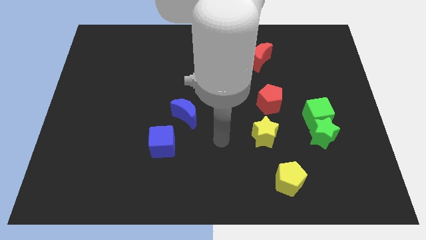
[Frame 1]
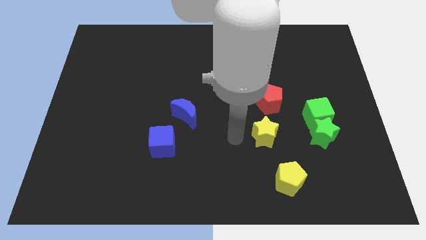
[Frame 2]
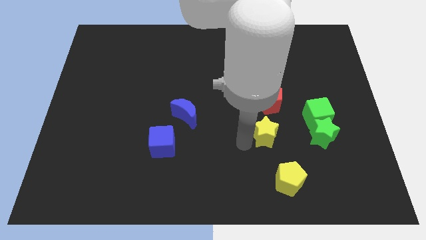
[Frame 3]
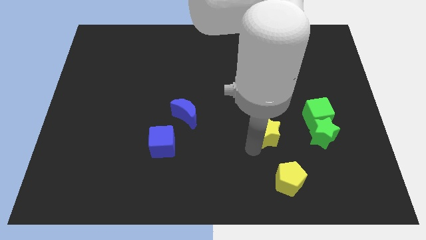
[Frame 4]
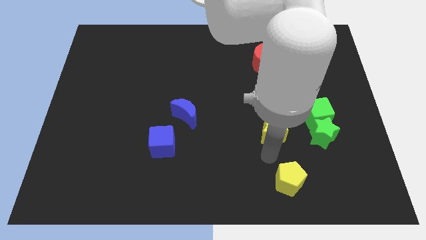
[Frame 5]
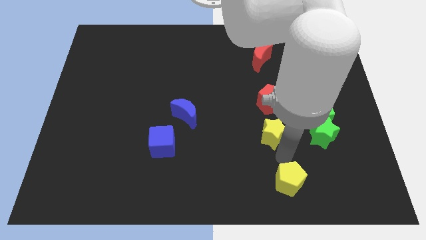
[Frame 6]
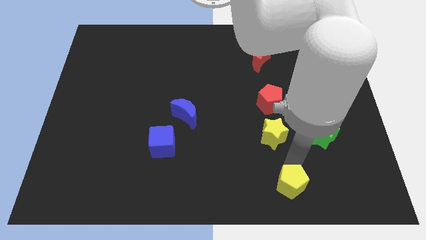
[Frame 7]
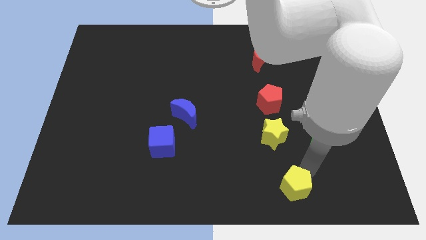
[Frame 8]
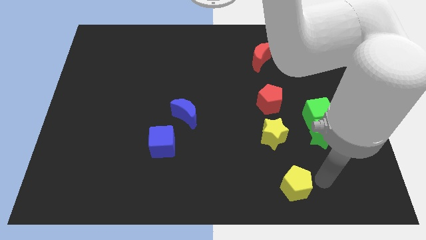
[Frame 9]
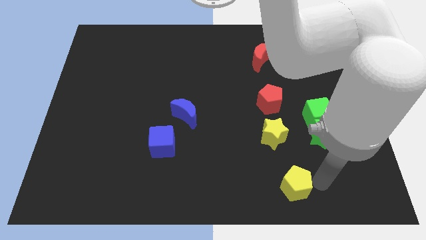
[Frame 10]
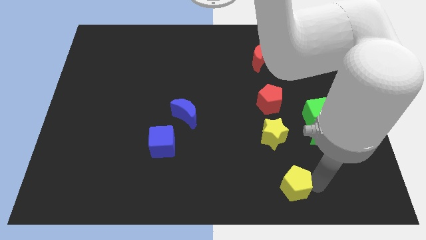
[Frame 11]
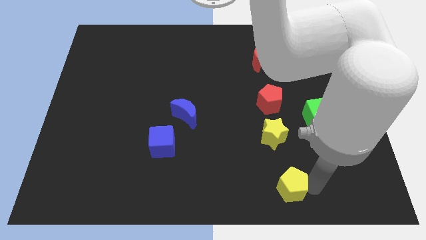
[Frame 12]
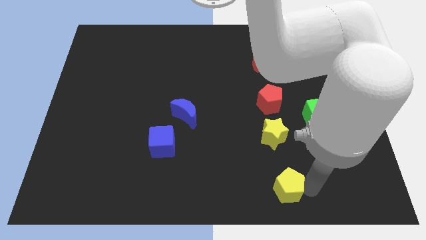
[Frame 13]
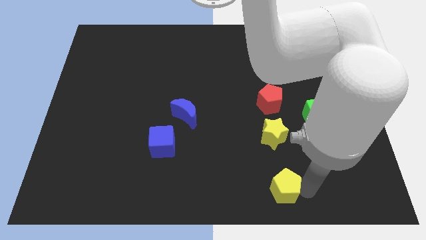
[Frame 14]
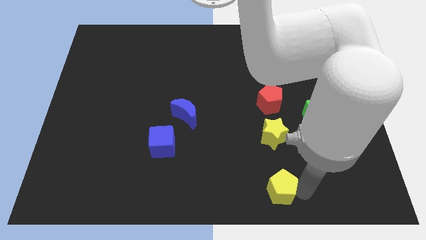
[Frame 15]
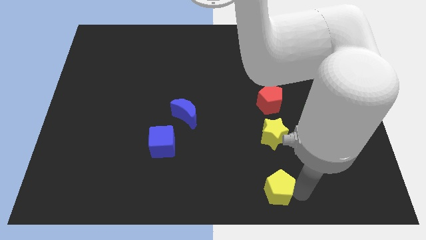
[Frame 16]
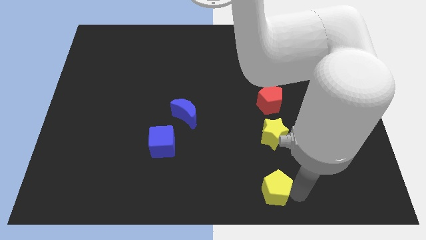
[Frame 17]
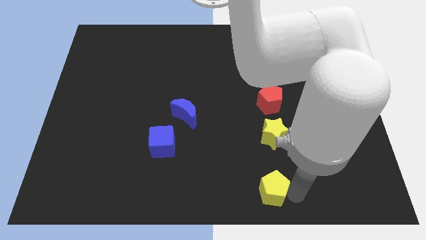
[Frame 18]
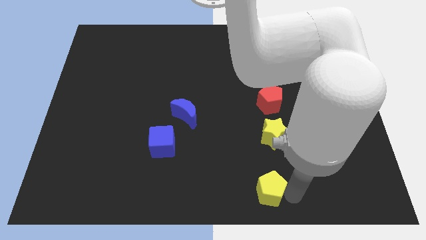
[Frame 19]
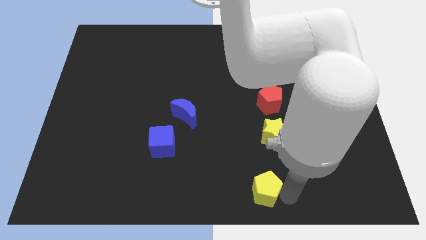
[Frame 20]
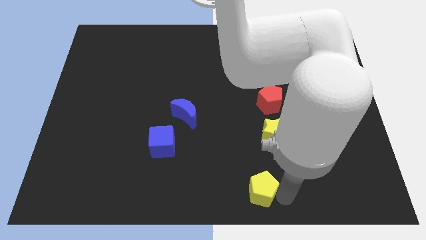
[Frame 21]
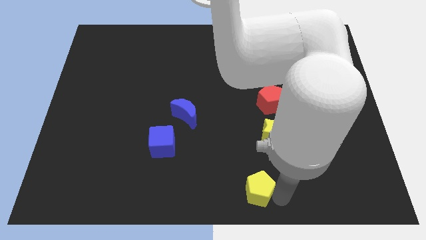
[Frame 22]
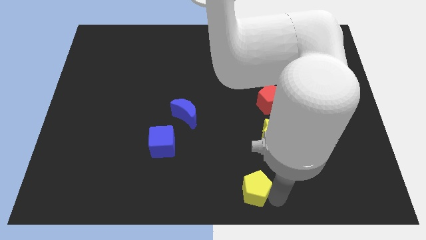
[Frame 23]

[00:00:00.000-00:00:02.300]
push the yellow pentagon left slightly

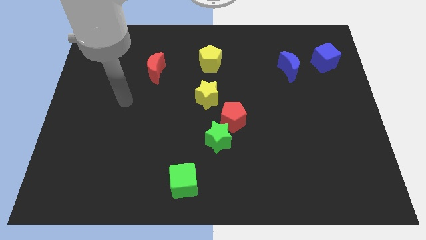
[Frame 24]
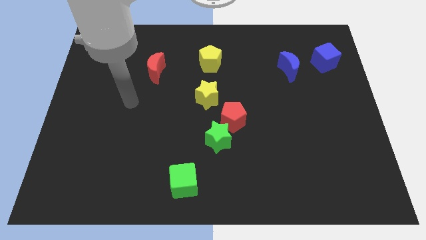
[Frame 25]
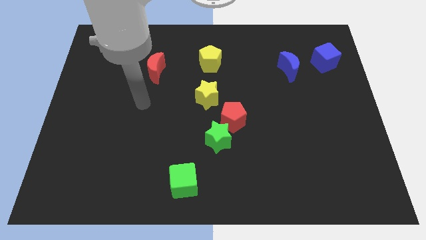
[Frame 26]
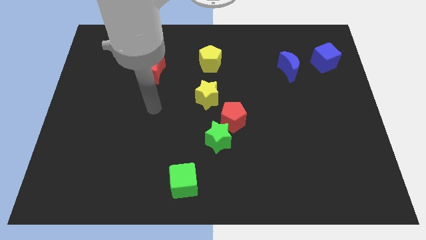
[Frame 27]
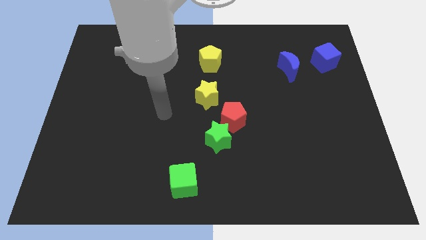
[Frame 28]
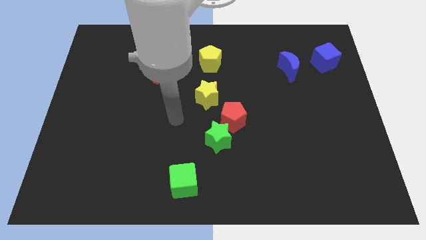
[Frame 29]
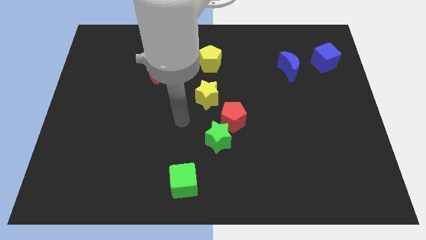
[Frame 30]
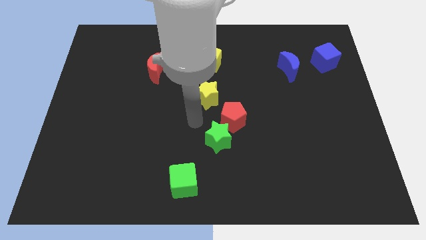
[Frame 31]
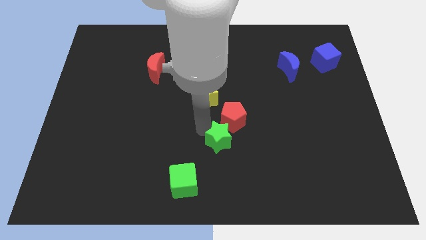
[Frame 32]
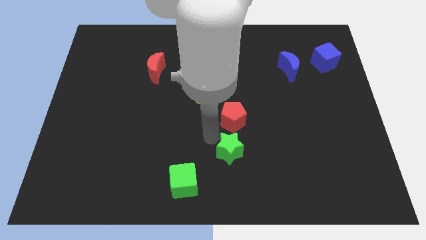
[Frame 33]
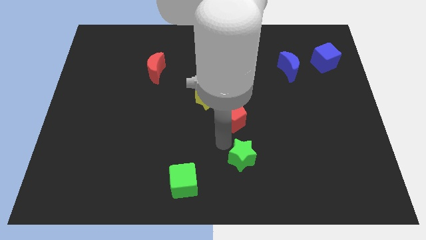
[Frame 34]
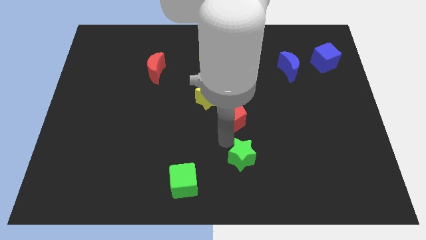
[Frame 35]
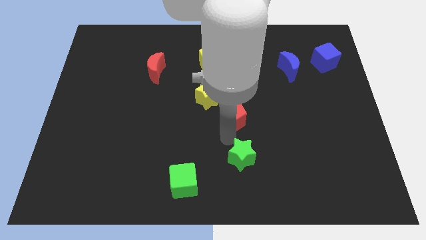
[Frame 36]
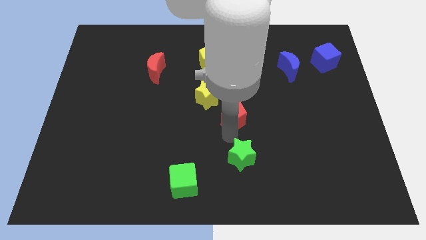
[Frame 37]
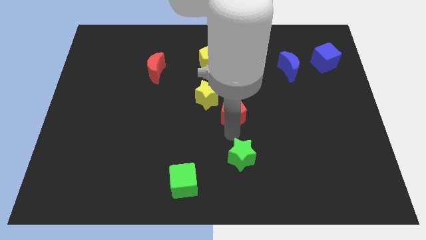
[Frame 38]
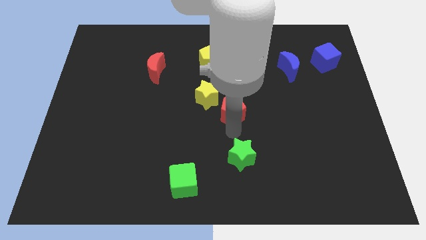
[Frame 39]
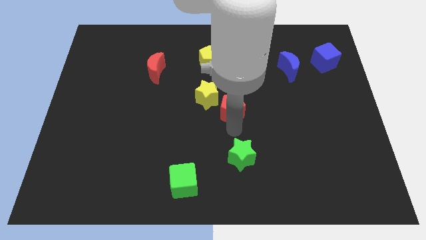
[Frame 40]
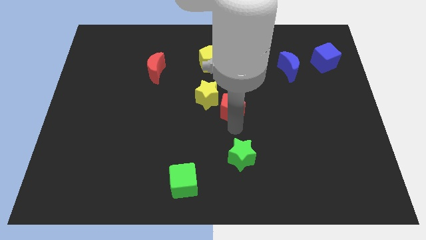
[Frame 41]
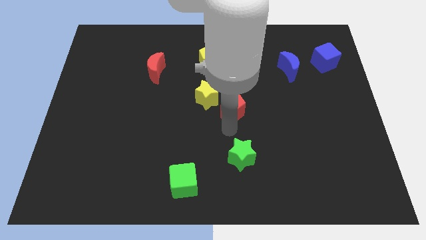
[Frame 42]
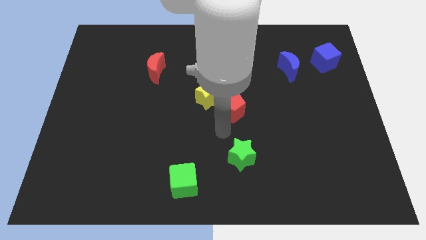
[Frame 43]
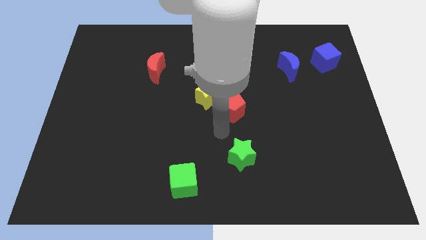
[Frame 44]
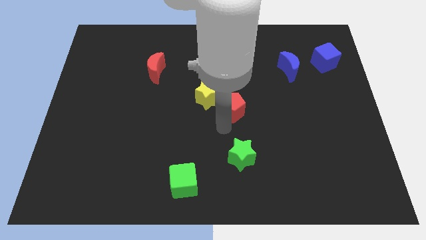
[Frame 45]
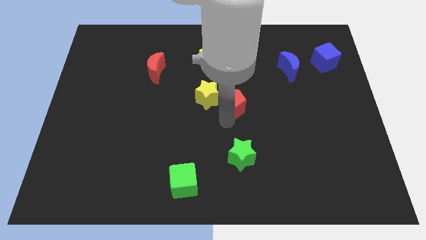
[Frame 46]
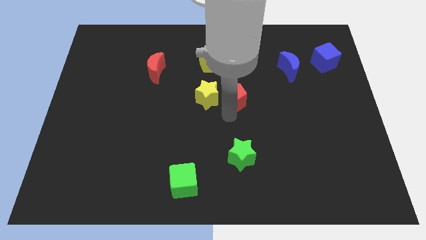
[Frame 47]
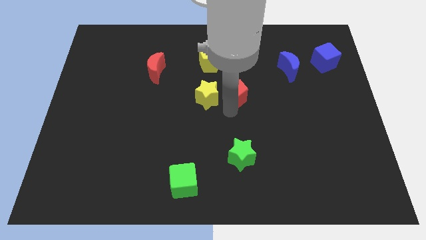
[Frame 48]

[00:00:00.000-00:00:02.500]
slide the red pentagon up slightly

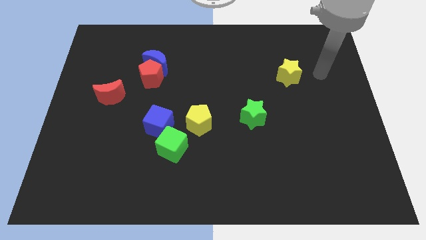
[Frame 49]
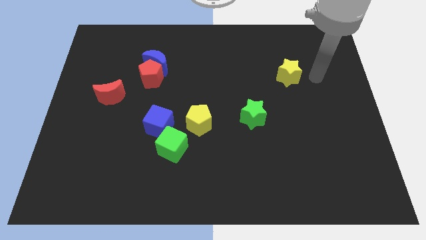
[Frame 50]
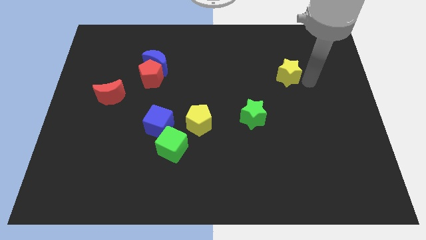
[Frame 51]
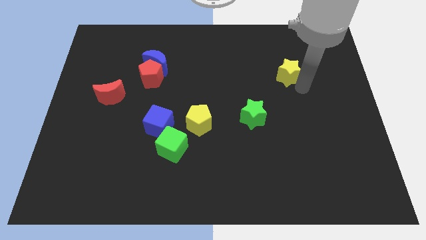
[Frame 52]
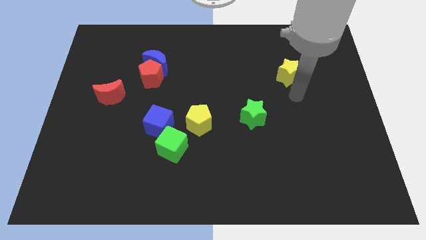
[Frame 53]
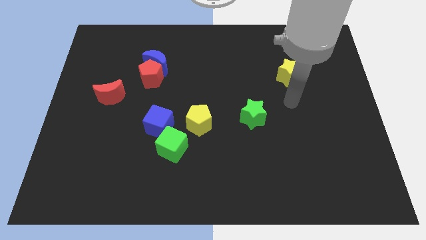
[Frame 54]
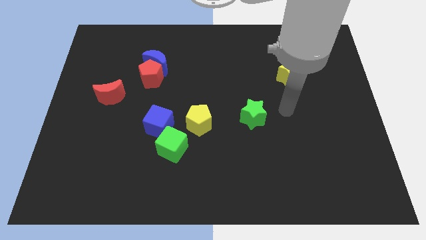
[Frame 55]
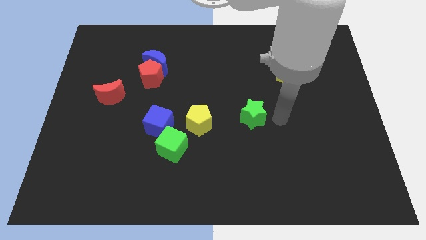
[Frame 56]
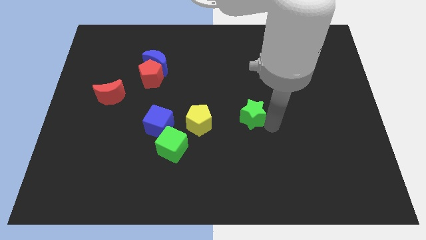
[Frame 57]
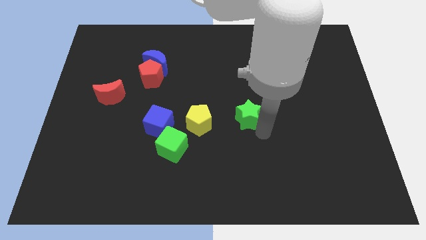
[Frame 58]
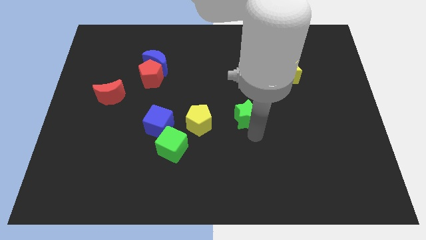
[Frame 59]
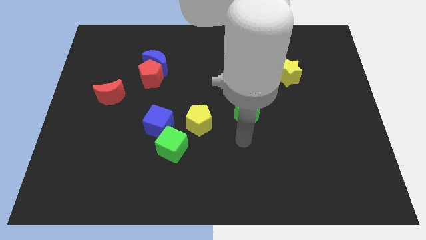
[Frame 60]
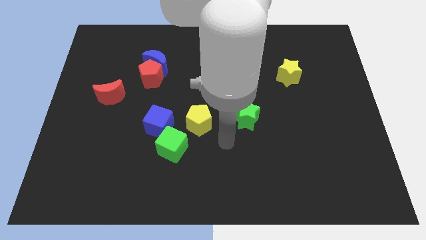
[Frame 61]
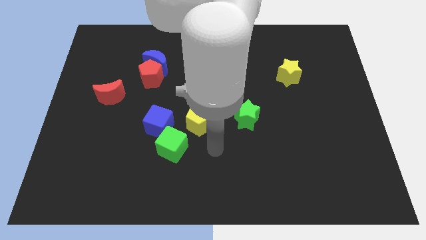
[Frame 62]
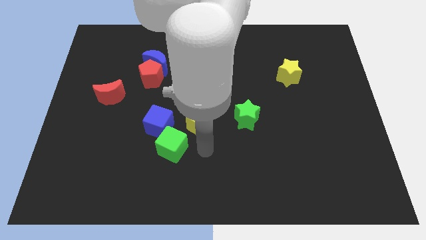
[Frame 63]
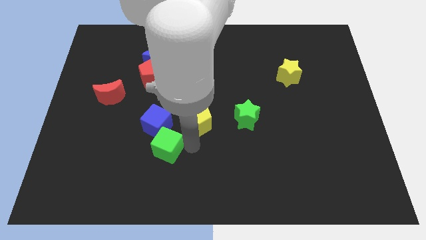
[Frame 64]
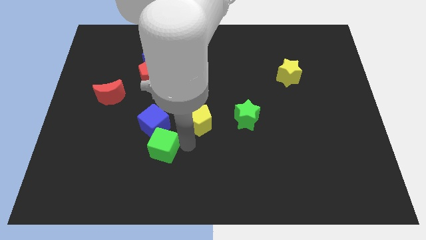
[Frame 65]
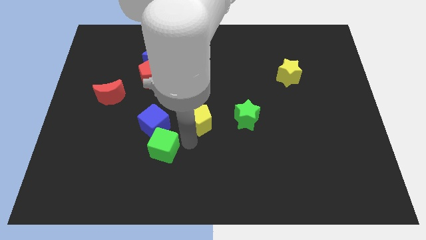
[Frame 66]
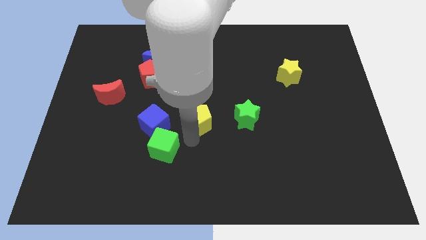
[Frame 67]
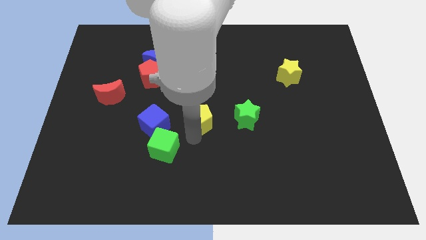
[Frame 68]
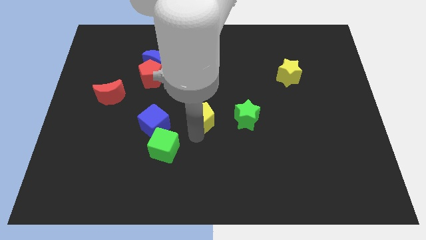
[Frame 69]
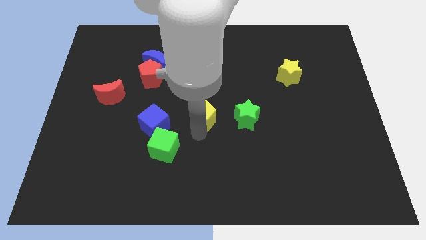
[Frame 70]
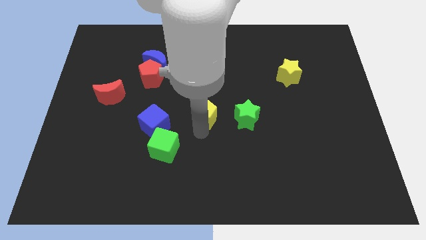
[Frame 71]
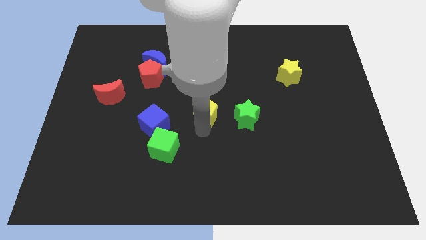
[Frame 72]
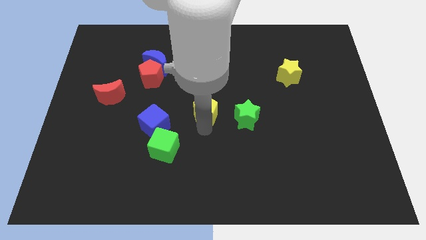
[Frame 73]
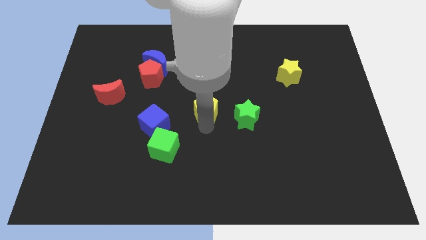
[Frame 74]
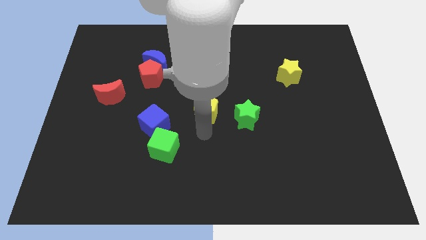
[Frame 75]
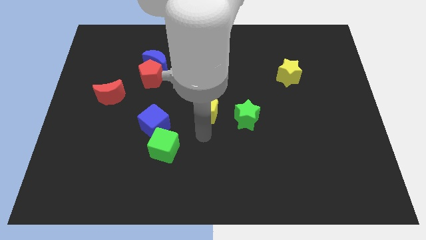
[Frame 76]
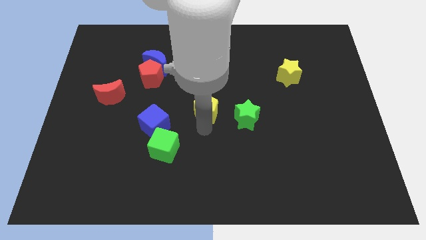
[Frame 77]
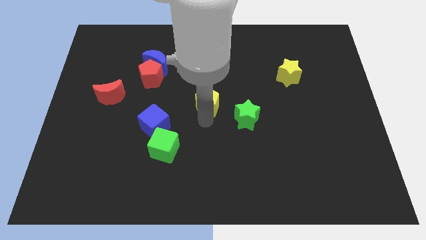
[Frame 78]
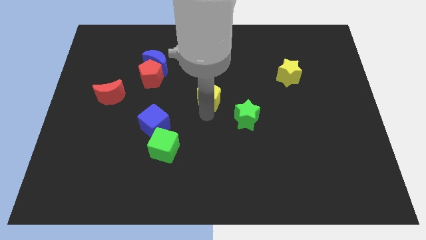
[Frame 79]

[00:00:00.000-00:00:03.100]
slightly move the yellow pentagon upwards
